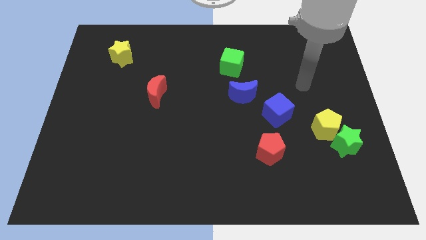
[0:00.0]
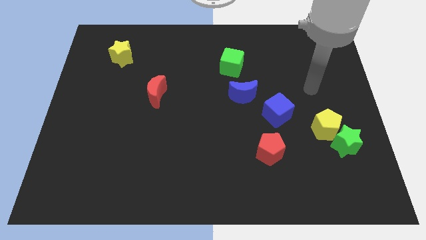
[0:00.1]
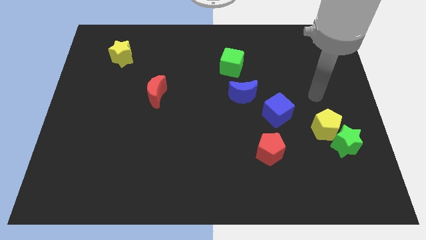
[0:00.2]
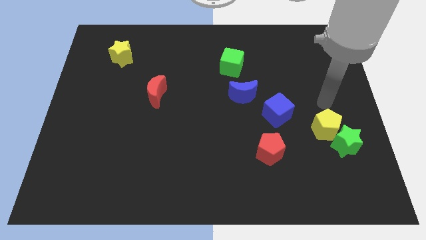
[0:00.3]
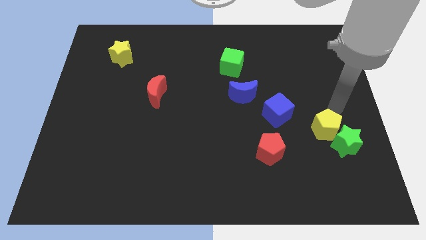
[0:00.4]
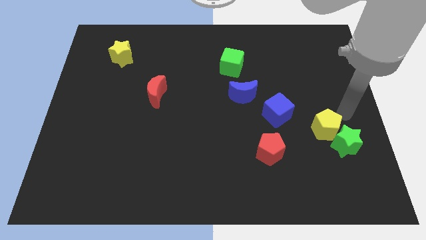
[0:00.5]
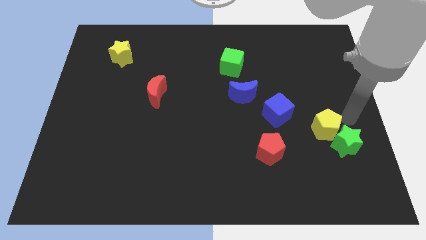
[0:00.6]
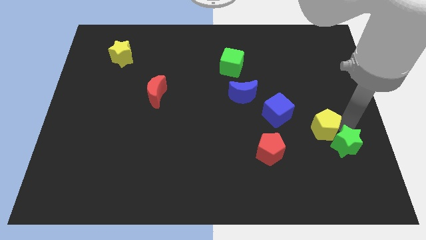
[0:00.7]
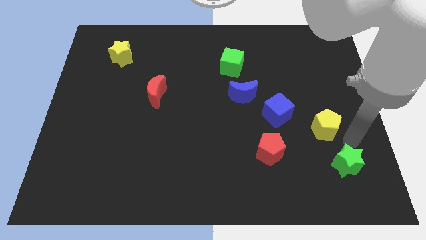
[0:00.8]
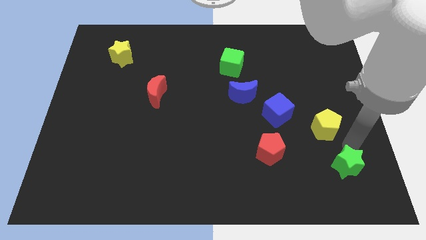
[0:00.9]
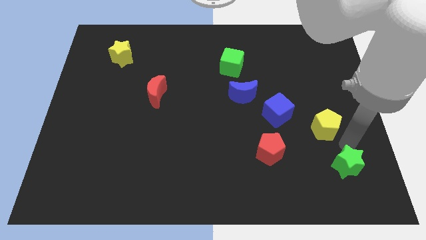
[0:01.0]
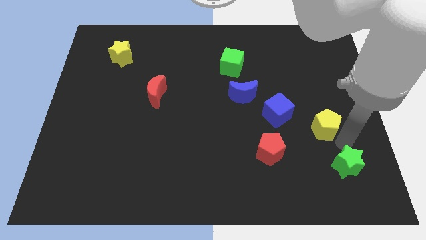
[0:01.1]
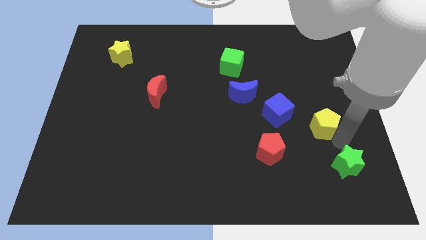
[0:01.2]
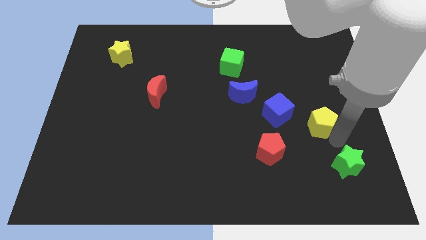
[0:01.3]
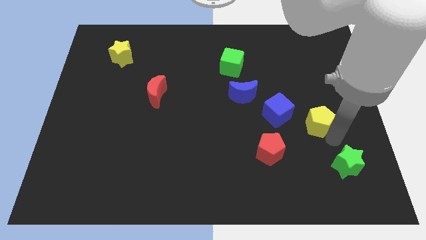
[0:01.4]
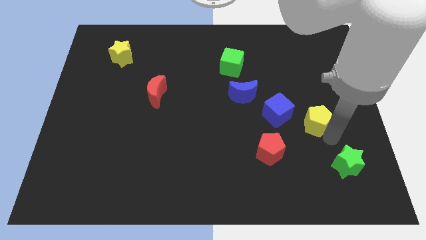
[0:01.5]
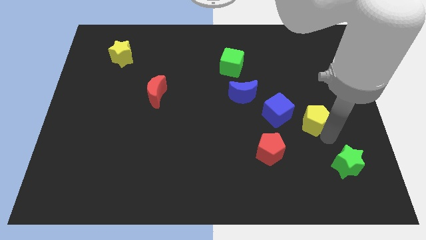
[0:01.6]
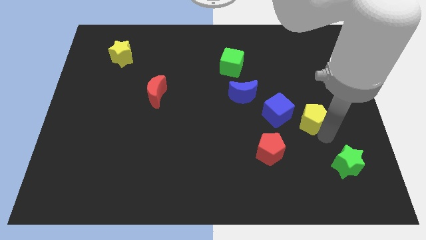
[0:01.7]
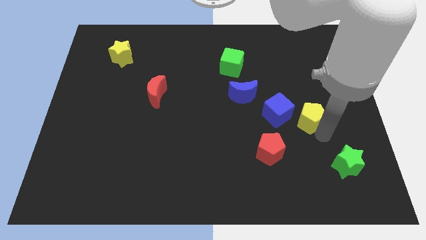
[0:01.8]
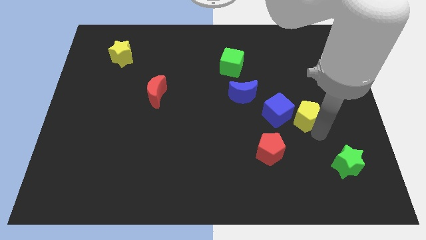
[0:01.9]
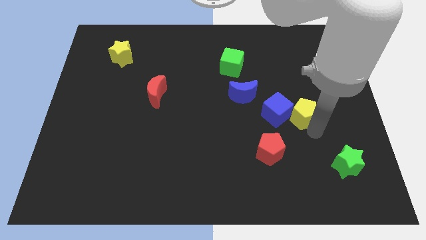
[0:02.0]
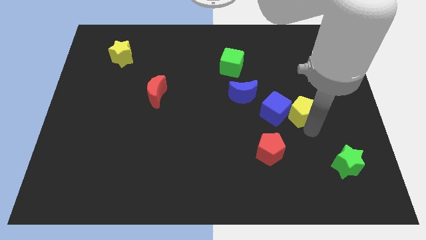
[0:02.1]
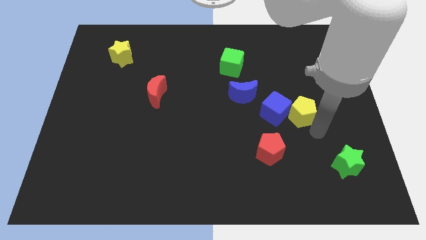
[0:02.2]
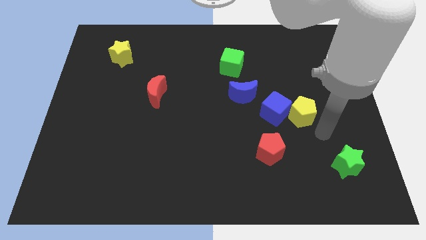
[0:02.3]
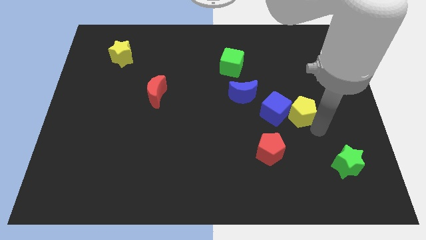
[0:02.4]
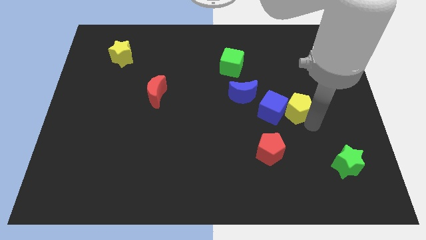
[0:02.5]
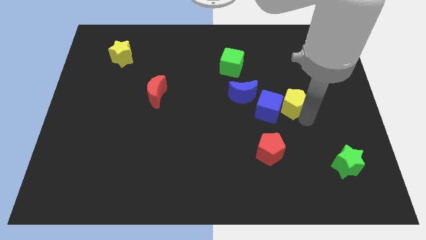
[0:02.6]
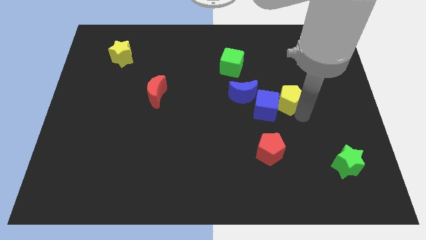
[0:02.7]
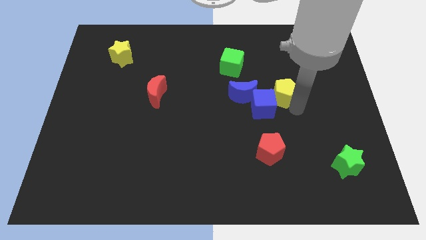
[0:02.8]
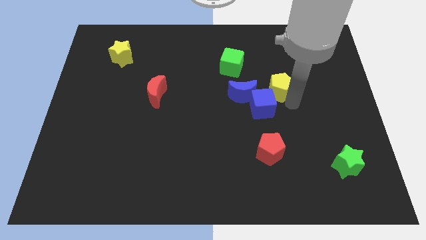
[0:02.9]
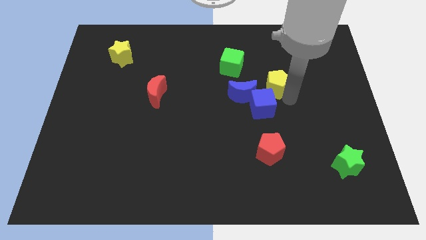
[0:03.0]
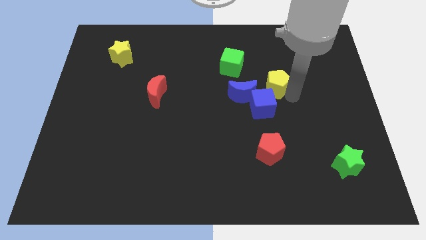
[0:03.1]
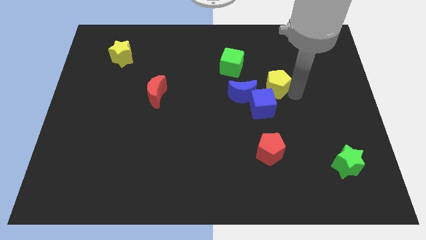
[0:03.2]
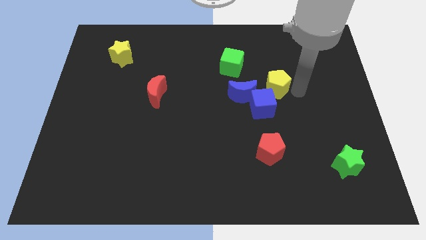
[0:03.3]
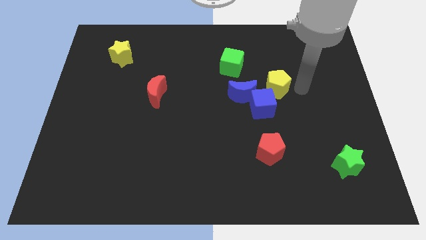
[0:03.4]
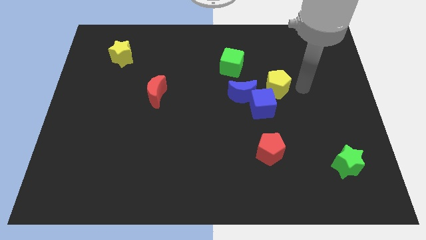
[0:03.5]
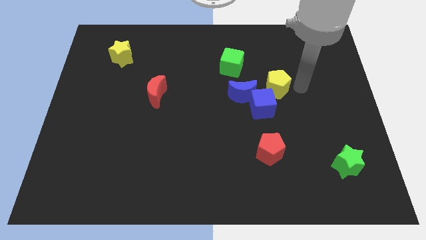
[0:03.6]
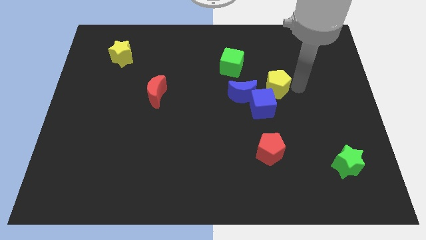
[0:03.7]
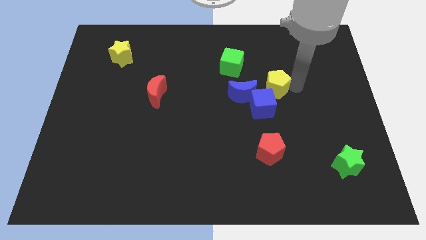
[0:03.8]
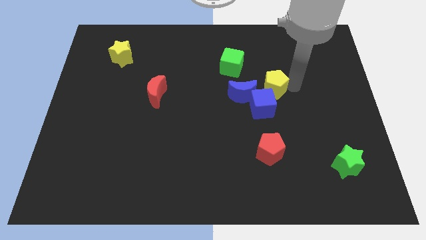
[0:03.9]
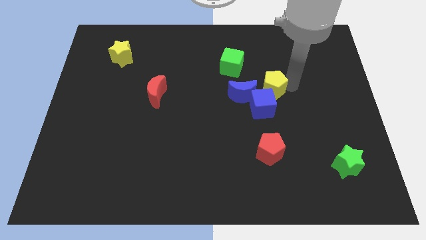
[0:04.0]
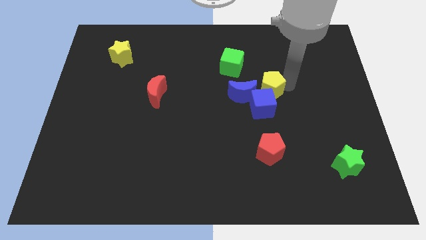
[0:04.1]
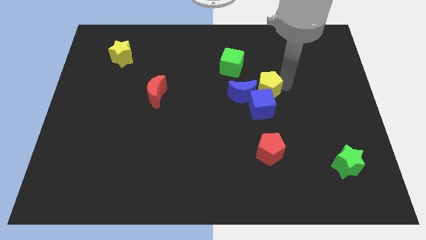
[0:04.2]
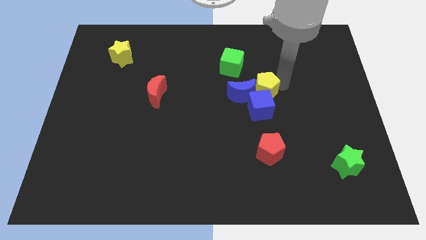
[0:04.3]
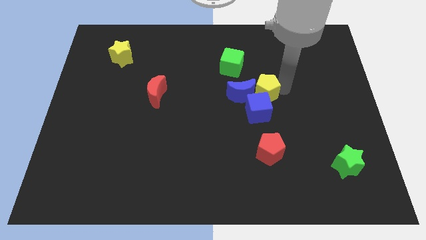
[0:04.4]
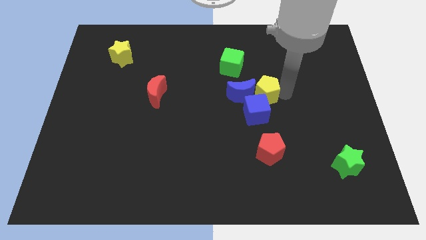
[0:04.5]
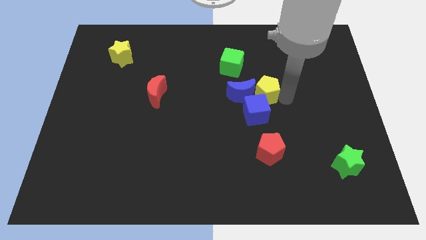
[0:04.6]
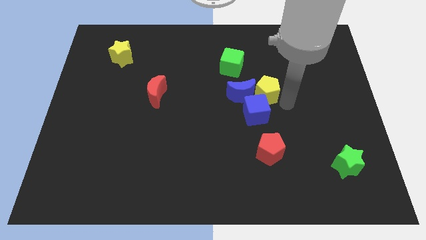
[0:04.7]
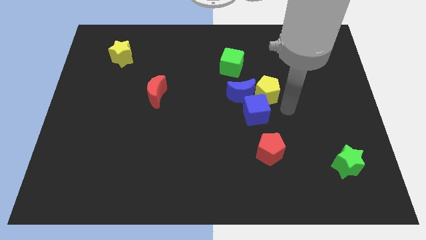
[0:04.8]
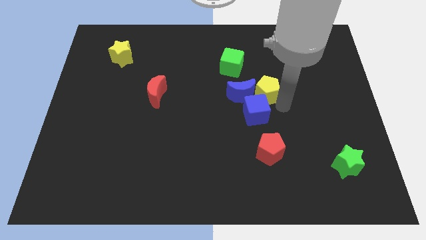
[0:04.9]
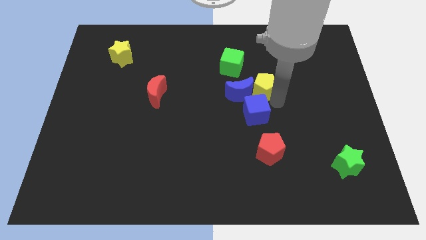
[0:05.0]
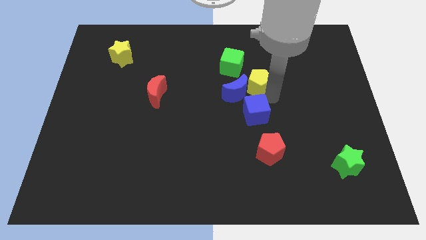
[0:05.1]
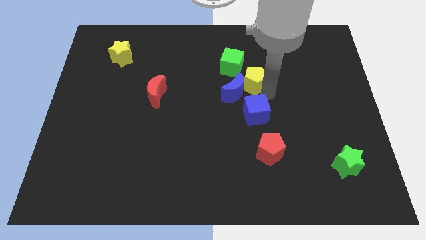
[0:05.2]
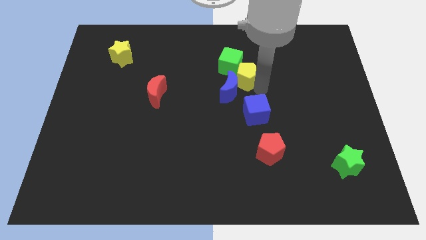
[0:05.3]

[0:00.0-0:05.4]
push the yellow pentagon to the green cube

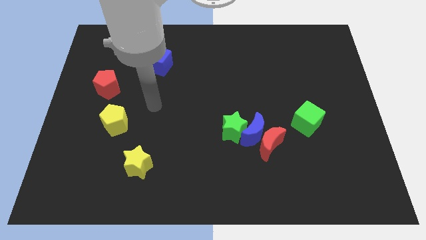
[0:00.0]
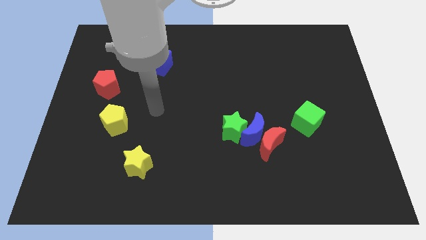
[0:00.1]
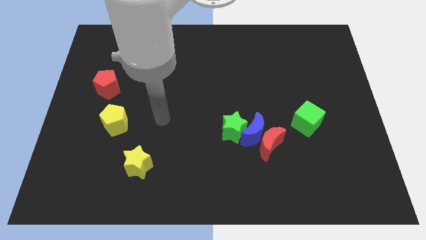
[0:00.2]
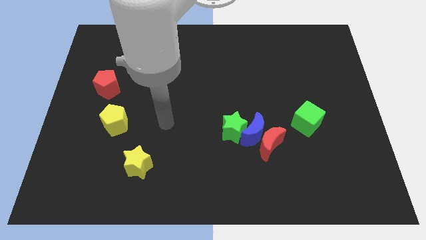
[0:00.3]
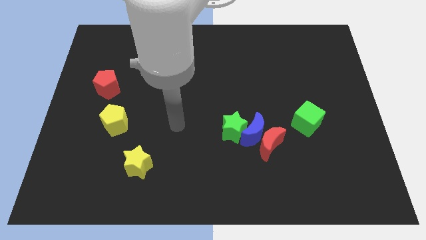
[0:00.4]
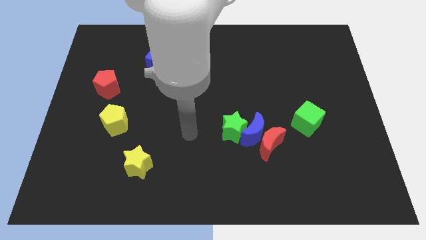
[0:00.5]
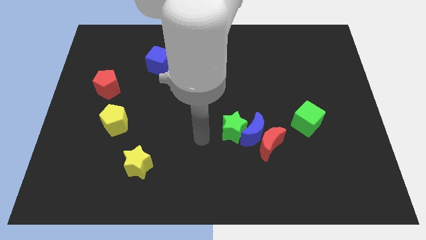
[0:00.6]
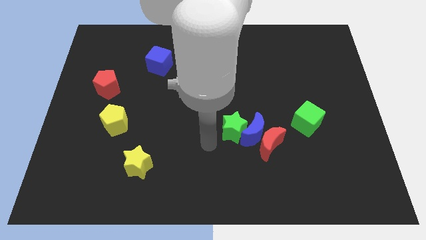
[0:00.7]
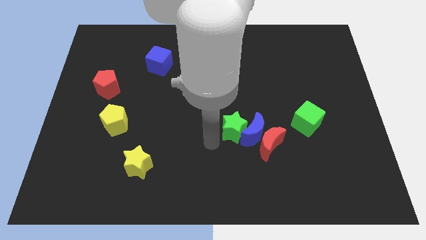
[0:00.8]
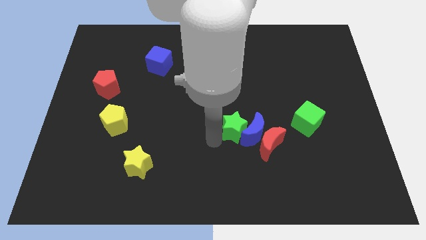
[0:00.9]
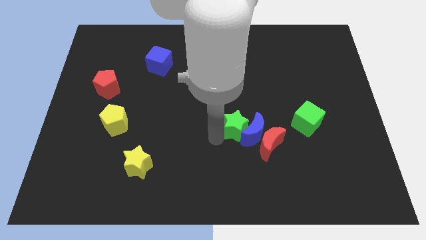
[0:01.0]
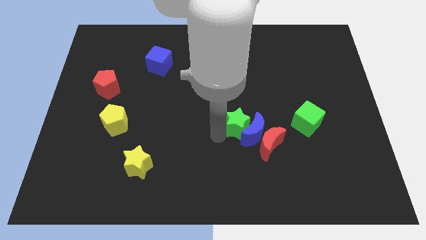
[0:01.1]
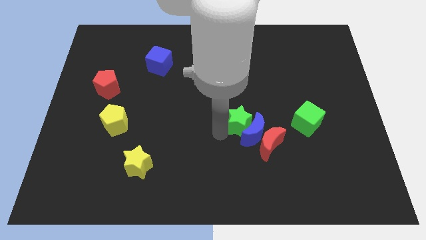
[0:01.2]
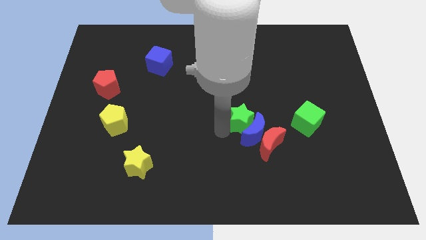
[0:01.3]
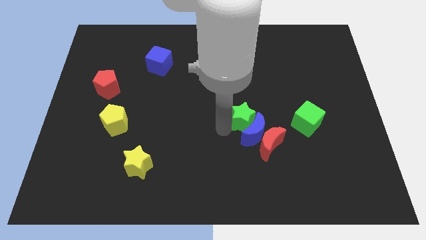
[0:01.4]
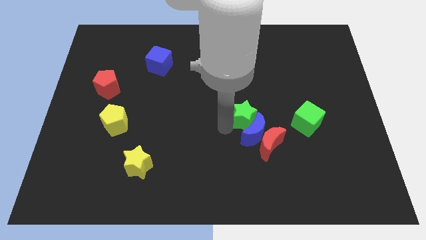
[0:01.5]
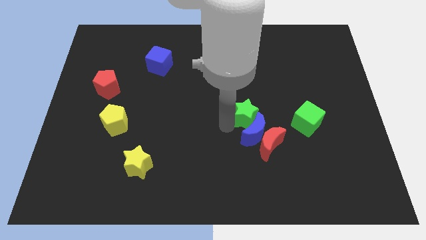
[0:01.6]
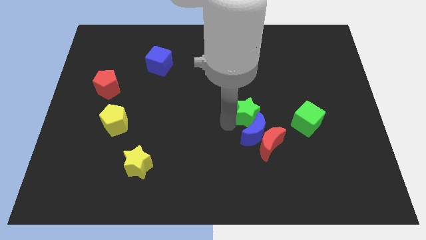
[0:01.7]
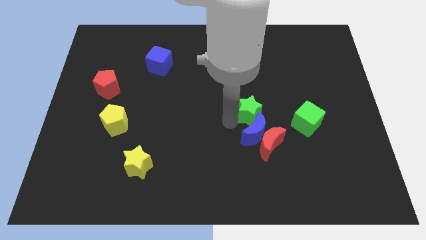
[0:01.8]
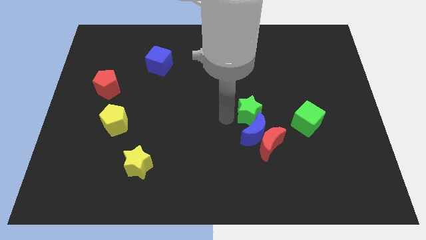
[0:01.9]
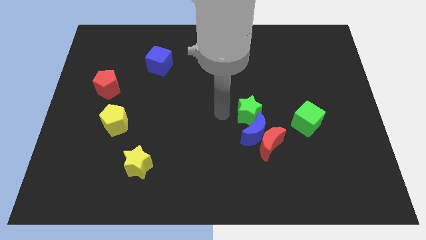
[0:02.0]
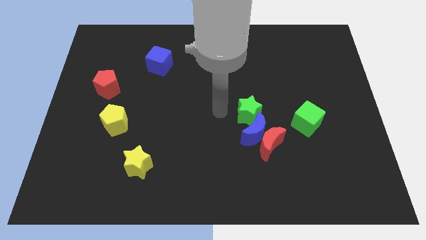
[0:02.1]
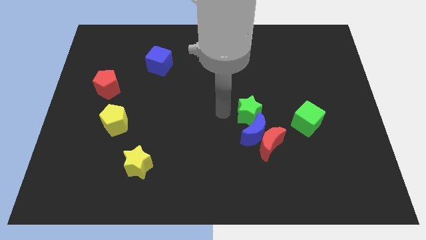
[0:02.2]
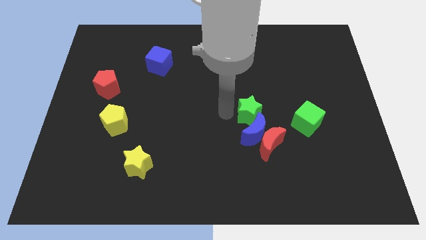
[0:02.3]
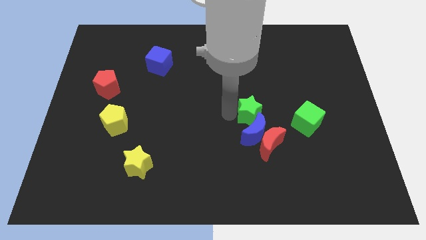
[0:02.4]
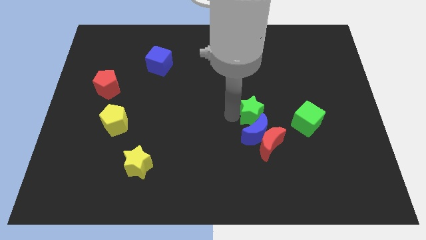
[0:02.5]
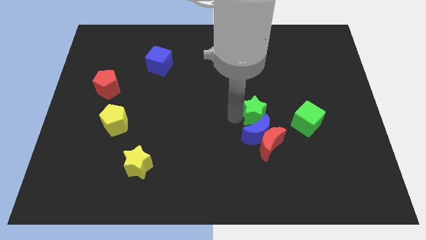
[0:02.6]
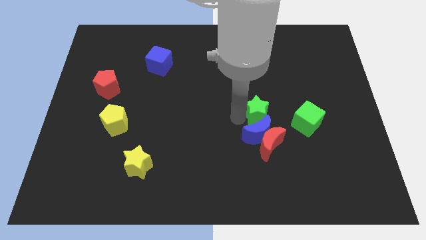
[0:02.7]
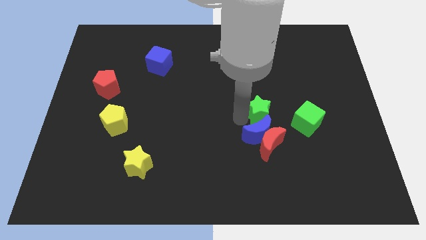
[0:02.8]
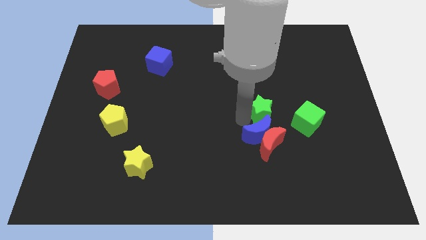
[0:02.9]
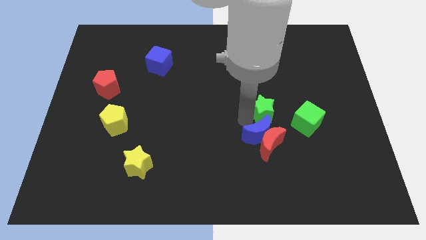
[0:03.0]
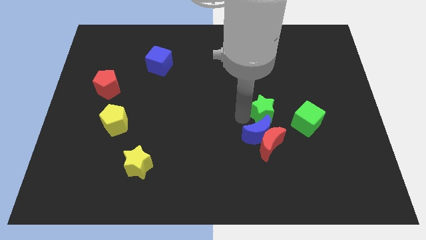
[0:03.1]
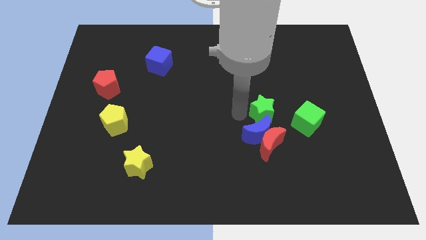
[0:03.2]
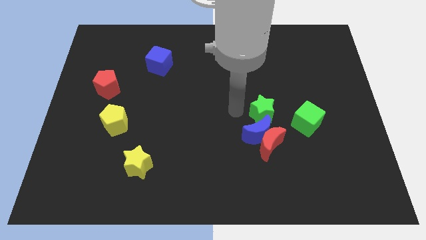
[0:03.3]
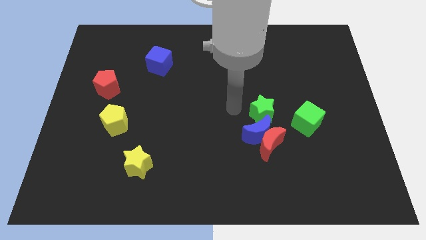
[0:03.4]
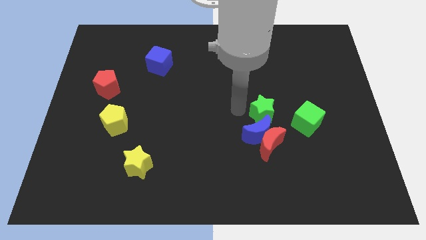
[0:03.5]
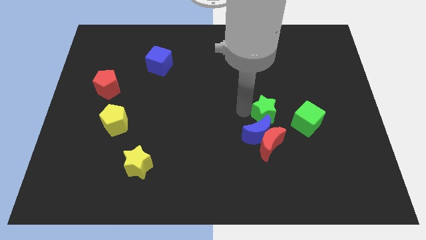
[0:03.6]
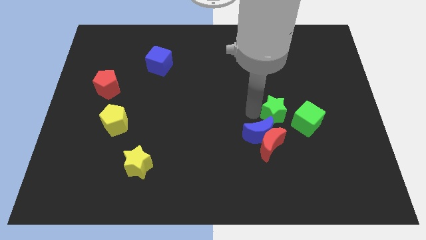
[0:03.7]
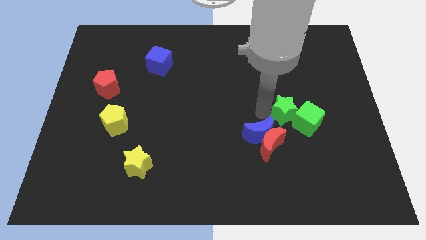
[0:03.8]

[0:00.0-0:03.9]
put the green star next to the green cube
